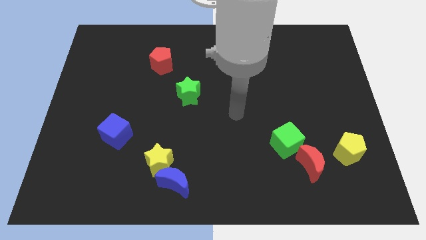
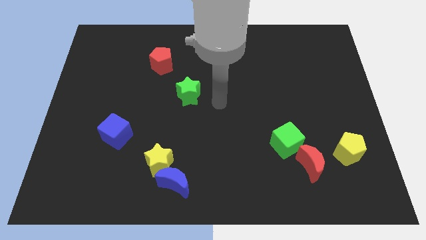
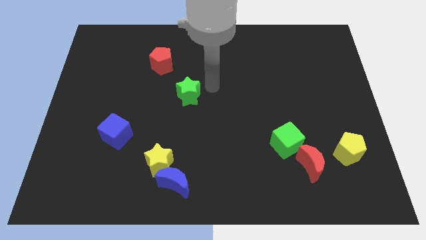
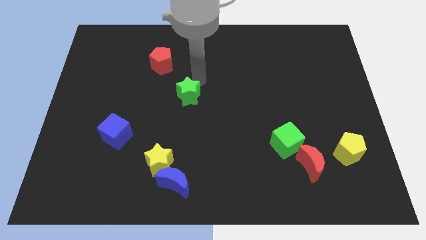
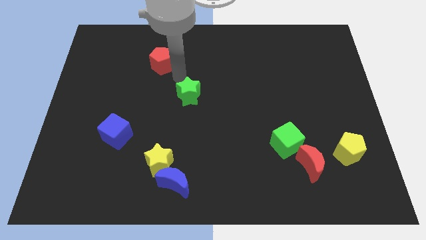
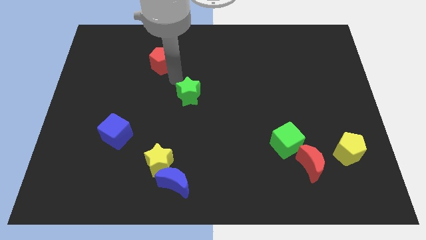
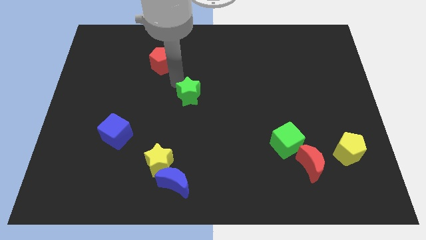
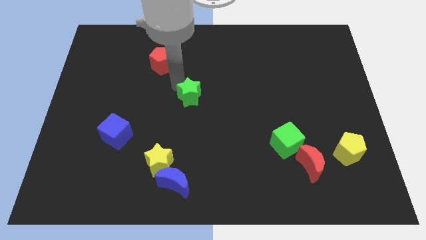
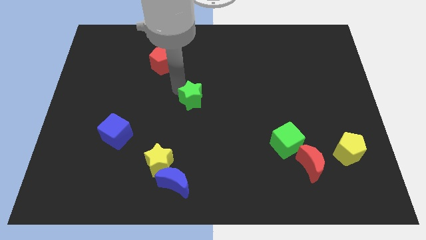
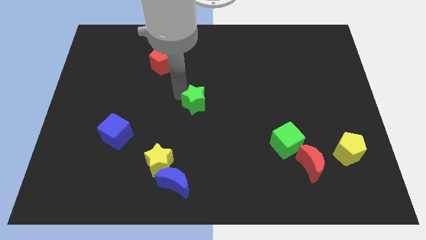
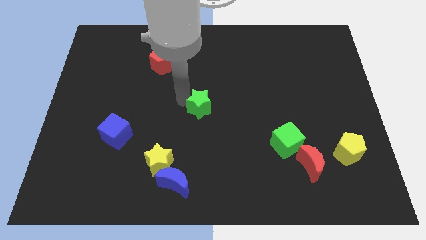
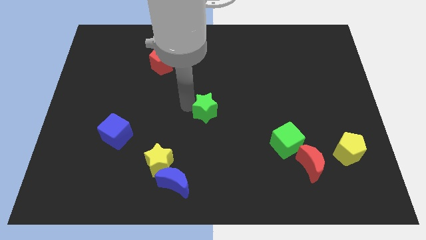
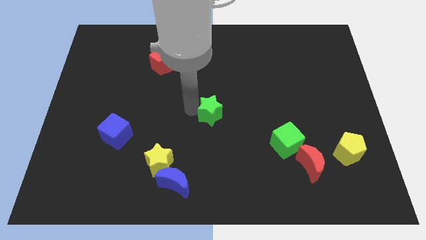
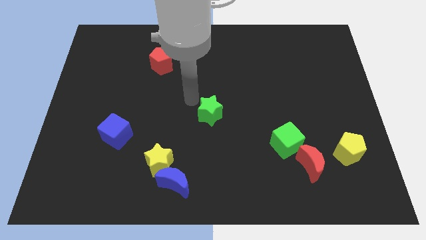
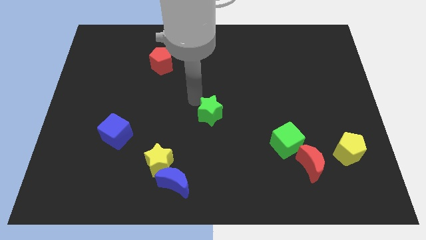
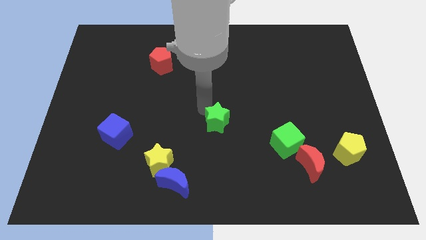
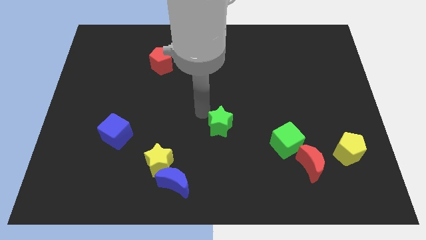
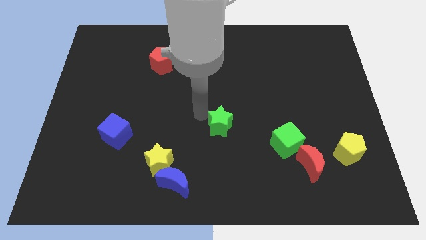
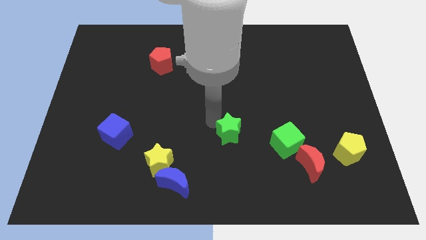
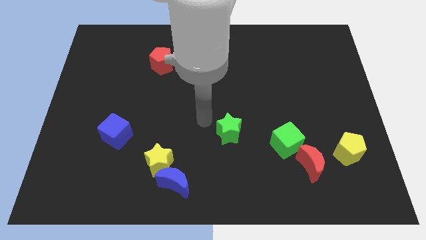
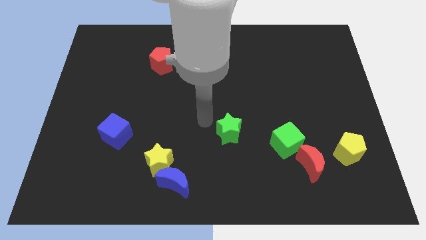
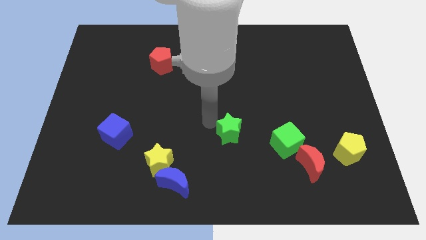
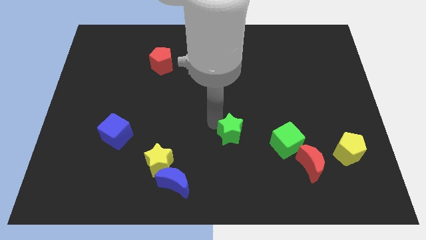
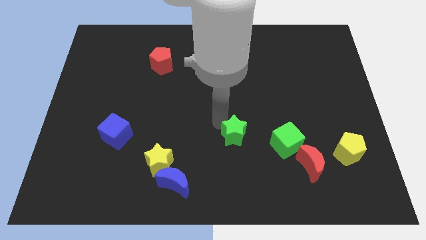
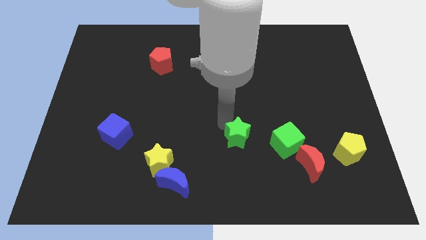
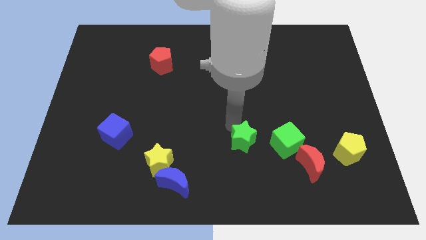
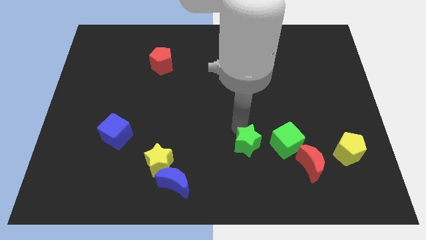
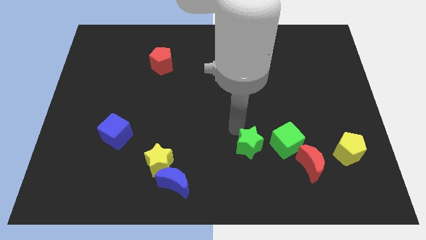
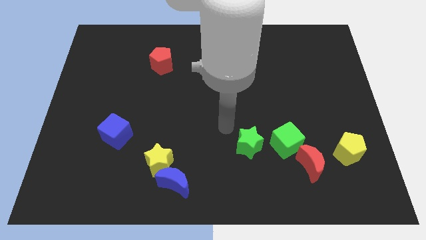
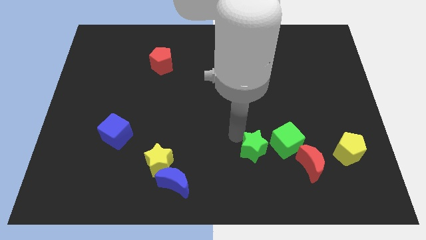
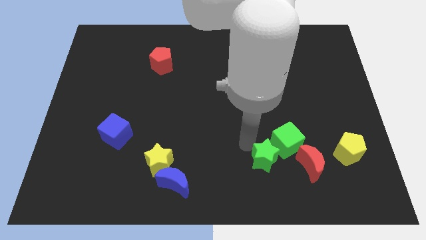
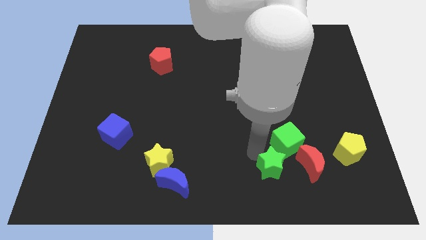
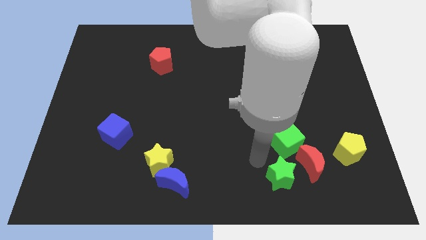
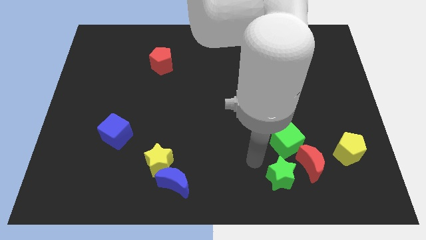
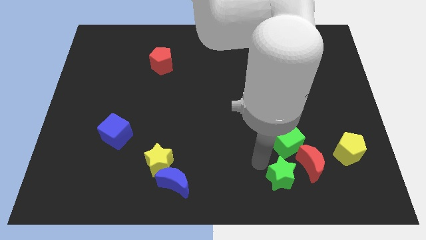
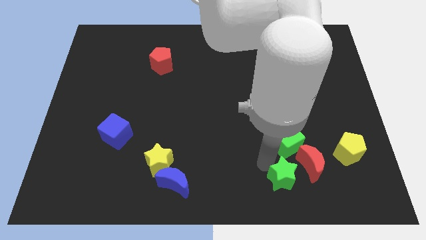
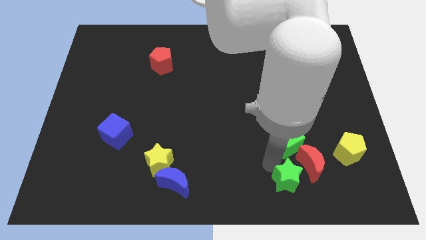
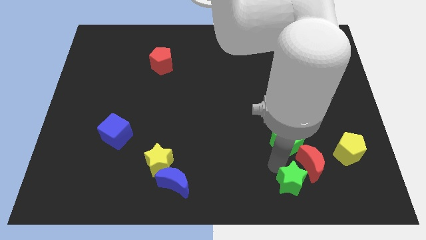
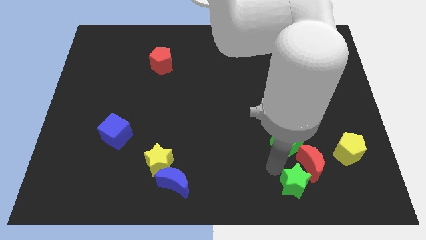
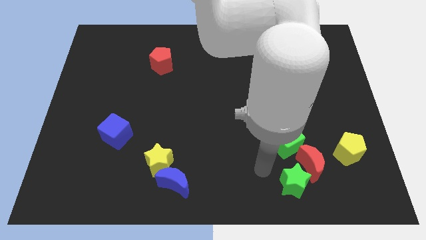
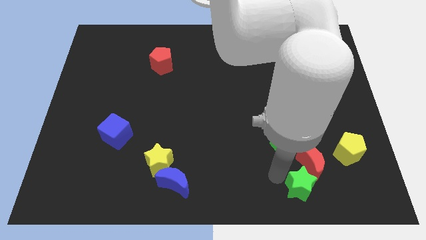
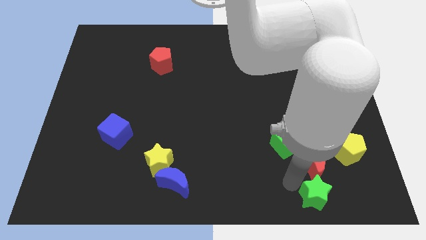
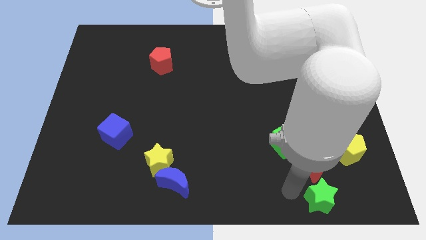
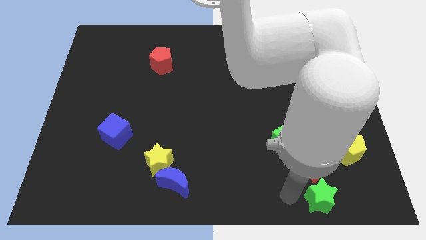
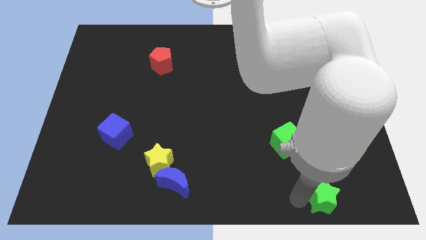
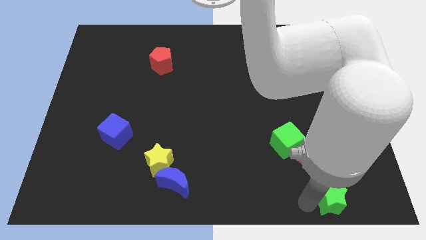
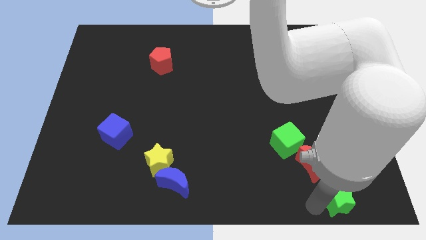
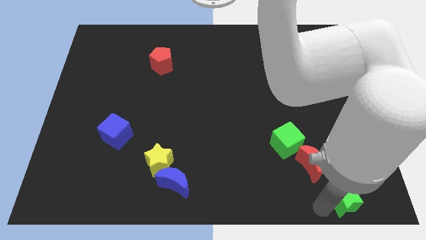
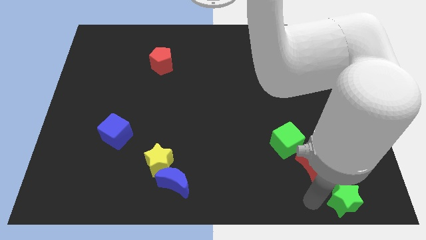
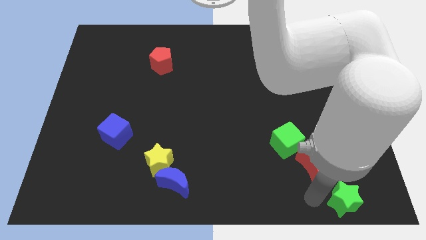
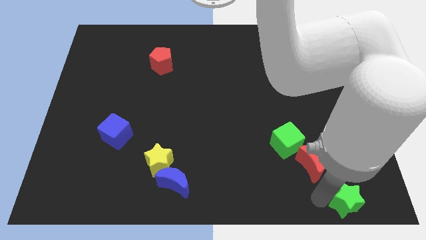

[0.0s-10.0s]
put the green star to the lower right corner

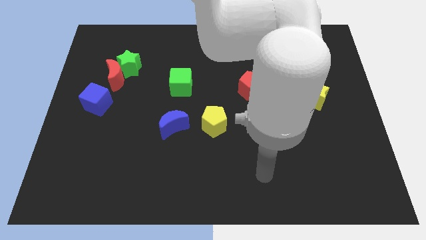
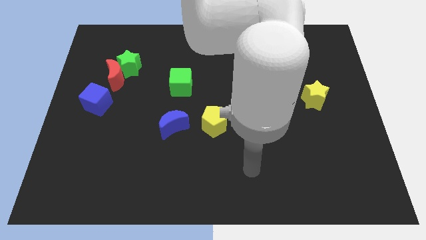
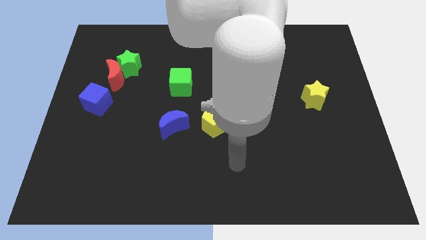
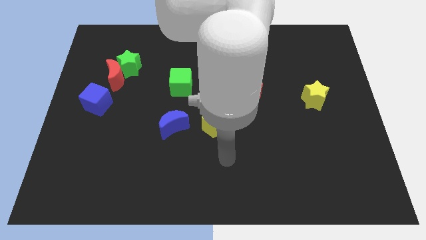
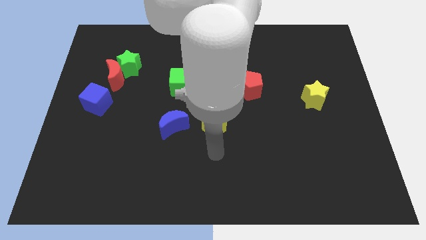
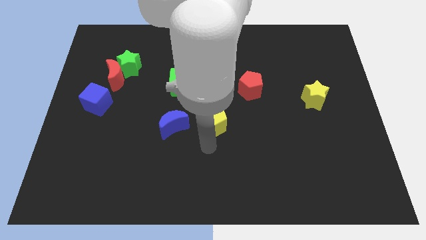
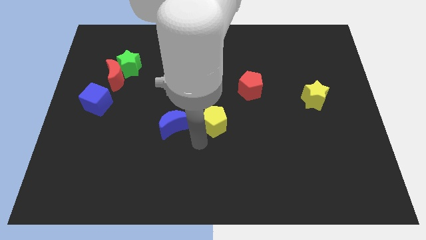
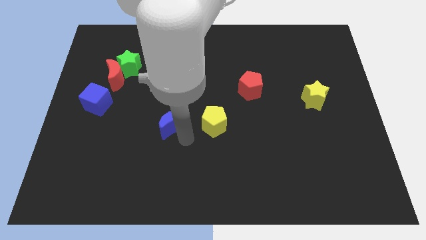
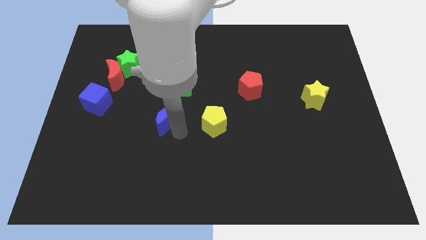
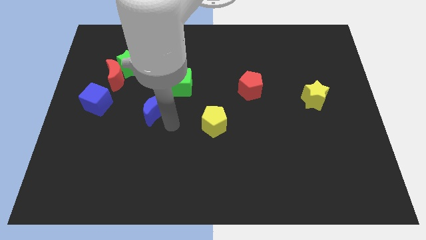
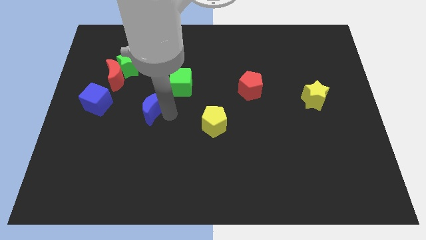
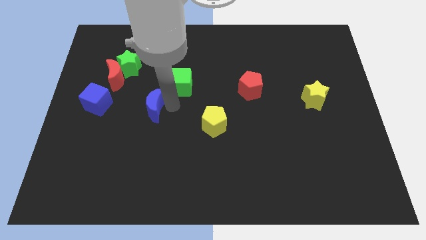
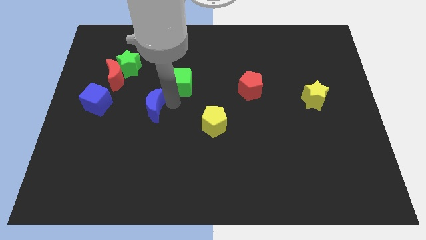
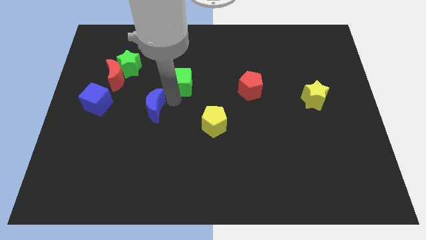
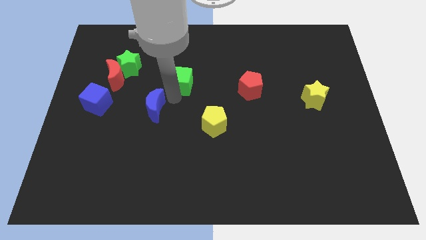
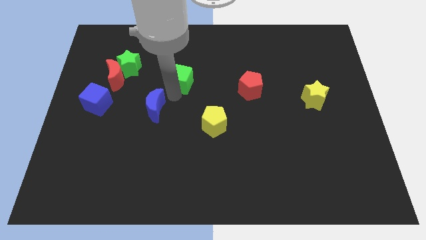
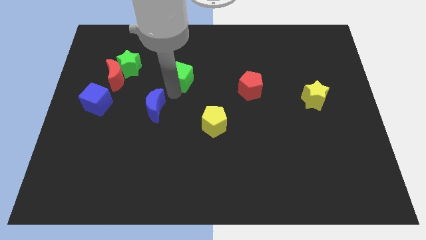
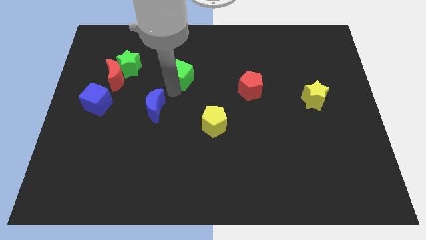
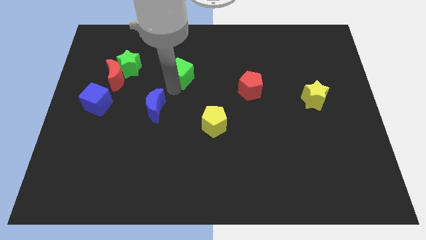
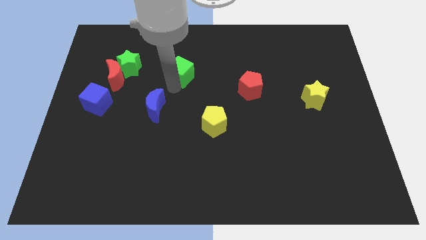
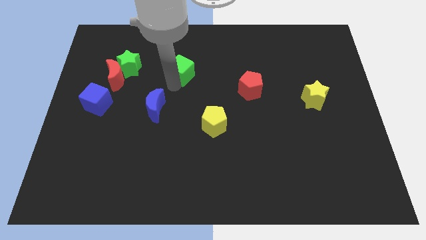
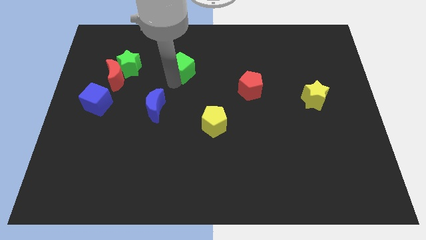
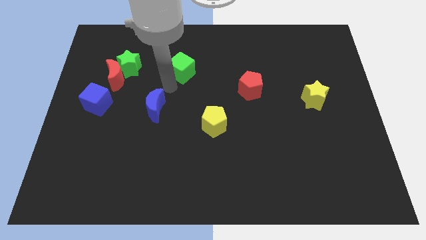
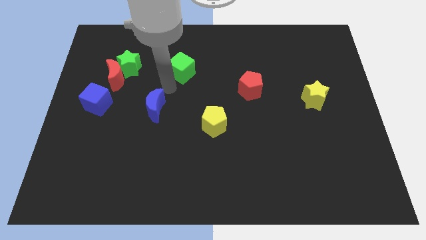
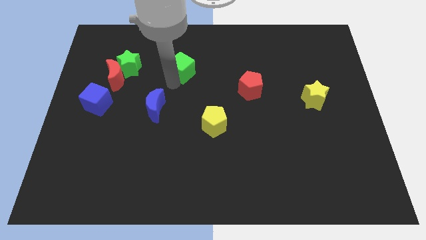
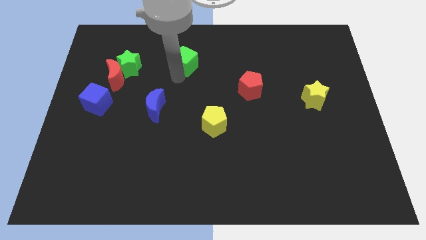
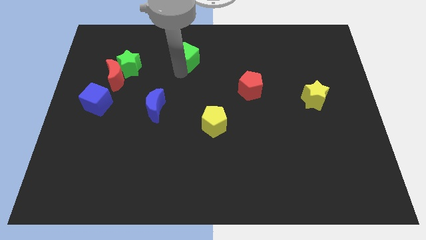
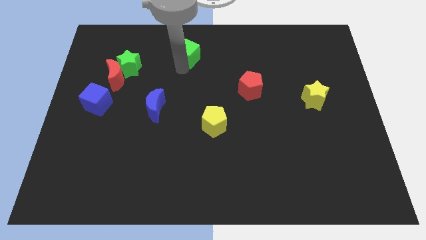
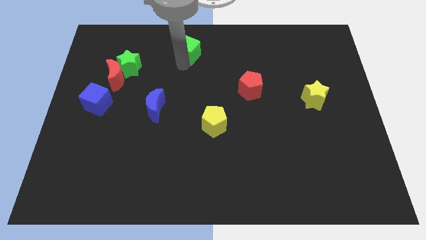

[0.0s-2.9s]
put the green cube to the top
